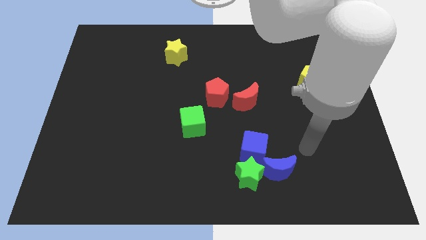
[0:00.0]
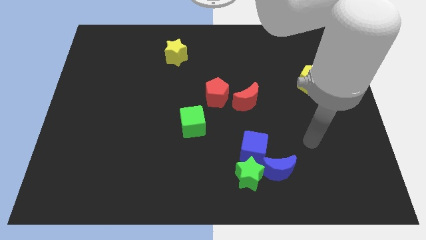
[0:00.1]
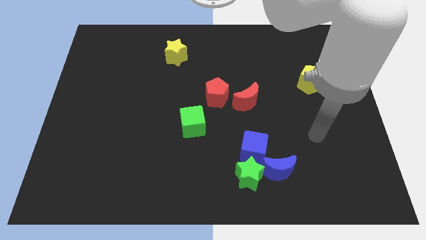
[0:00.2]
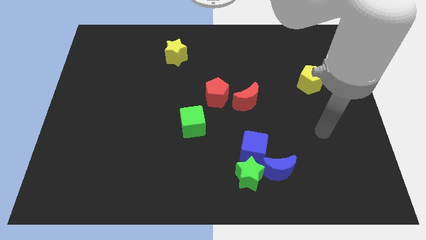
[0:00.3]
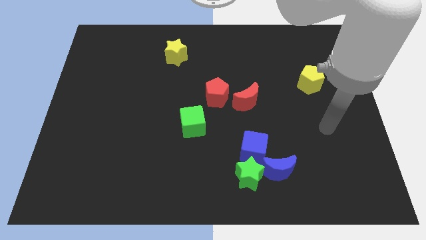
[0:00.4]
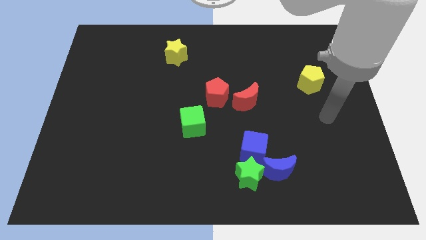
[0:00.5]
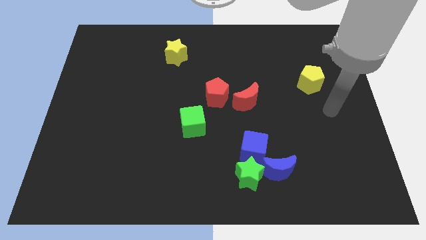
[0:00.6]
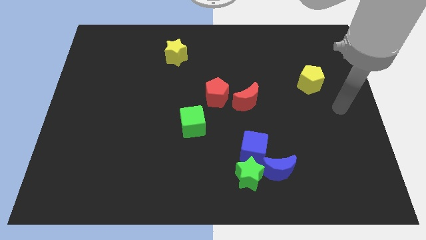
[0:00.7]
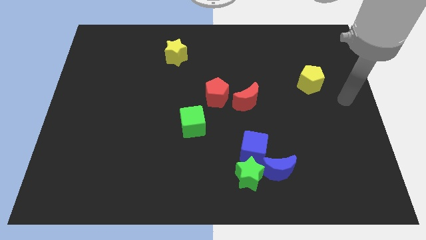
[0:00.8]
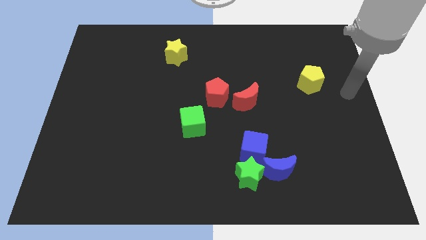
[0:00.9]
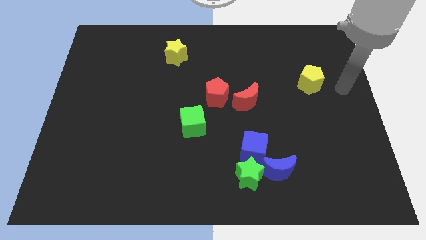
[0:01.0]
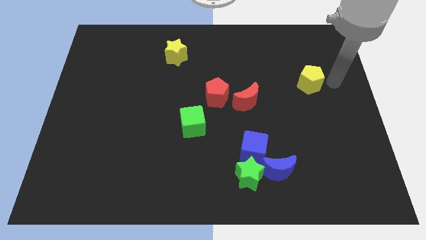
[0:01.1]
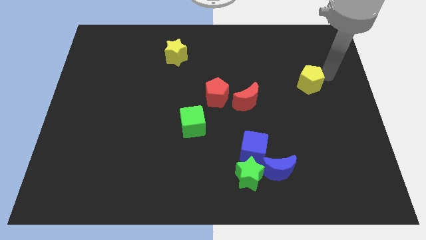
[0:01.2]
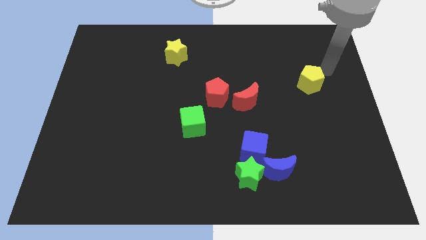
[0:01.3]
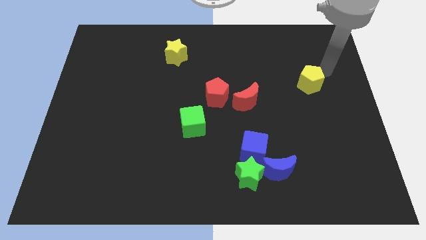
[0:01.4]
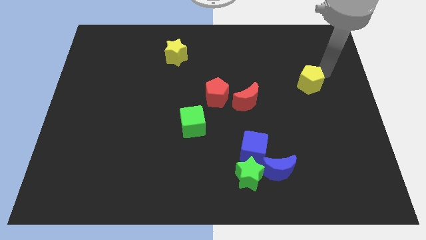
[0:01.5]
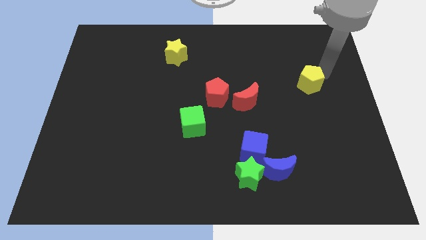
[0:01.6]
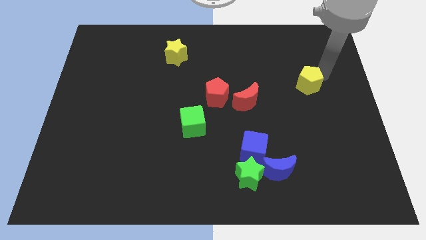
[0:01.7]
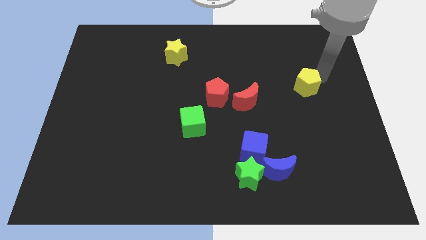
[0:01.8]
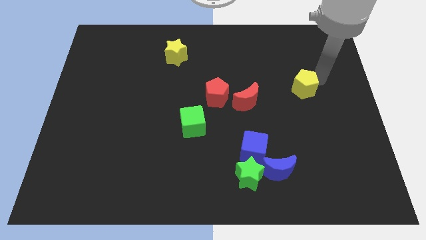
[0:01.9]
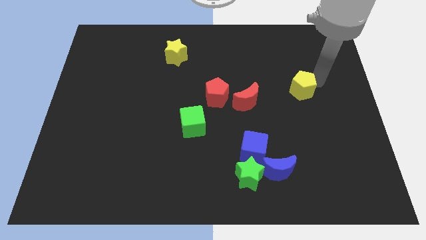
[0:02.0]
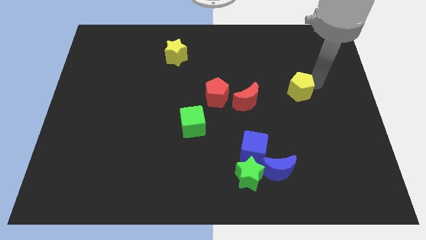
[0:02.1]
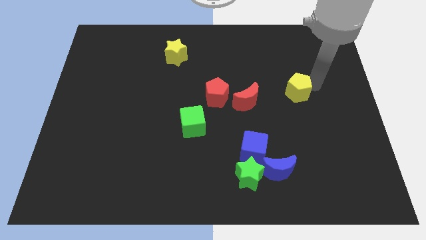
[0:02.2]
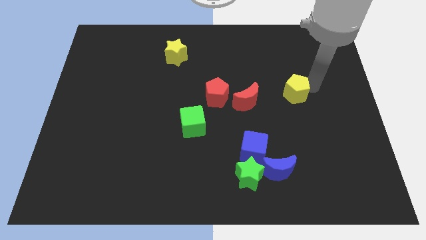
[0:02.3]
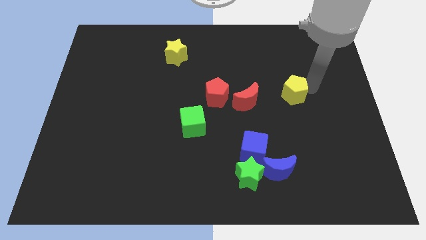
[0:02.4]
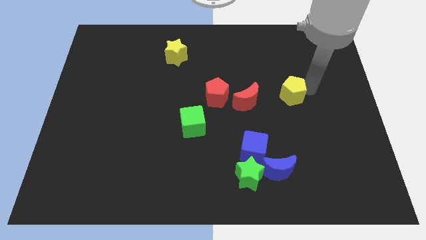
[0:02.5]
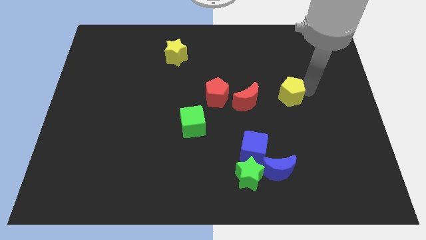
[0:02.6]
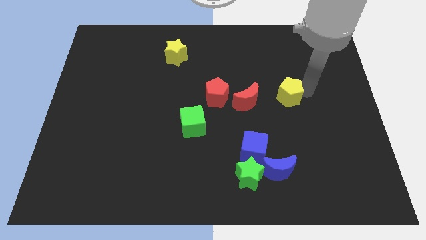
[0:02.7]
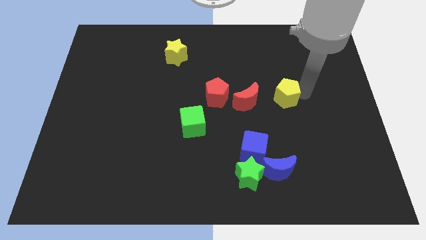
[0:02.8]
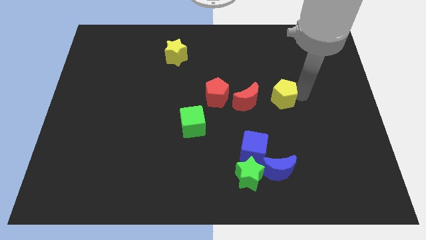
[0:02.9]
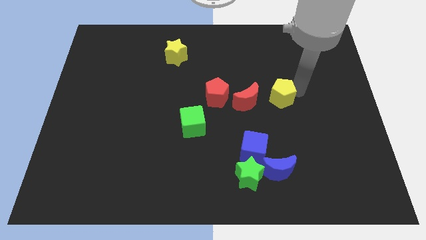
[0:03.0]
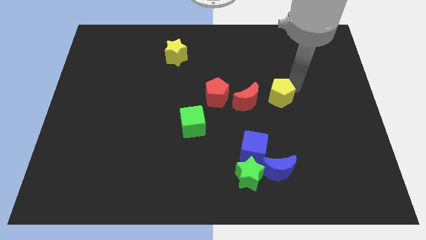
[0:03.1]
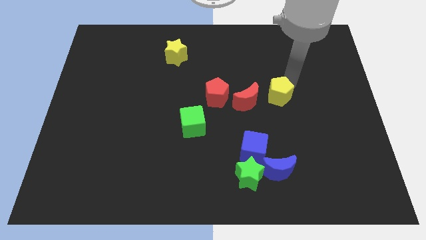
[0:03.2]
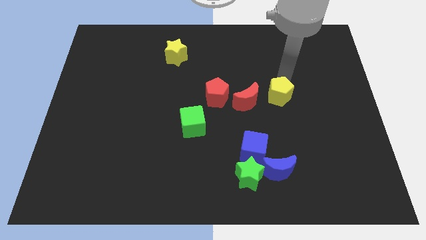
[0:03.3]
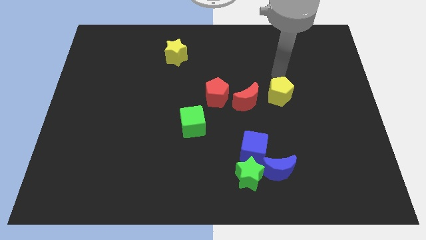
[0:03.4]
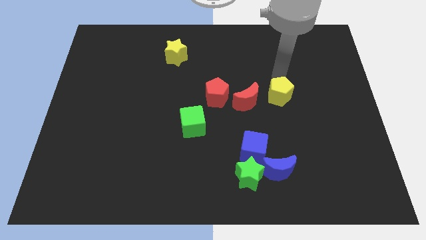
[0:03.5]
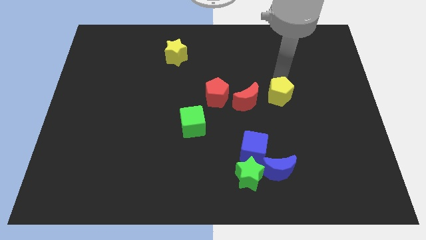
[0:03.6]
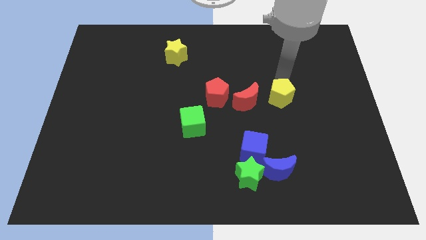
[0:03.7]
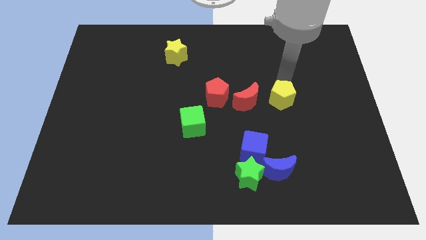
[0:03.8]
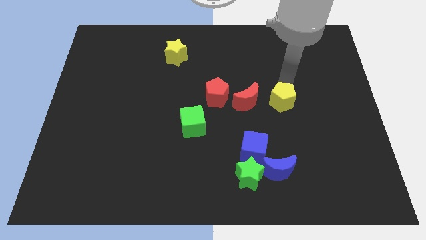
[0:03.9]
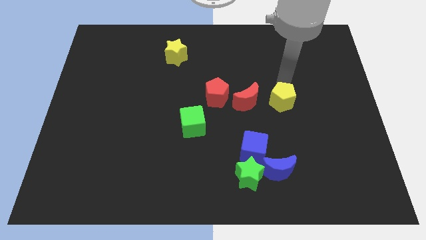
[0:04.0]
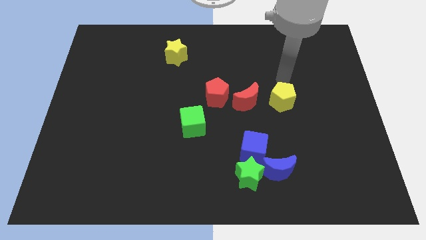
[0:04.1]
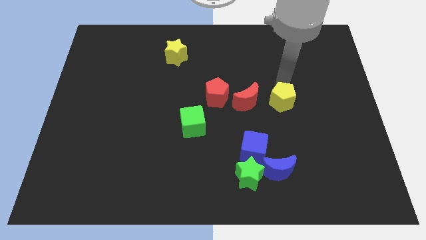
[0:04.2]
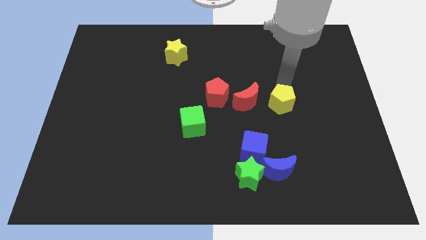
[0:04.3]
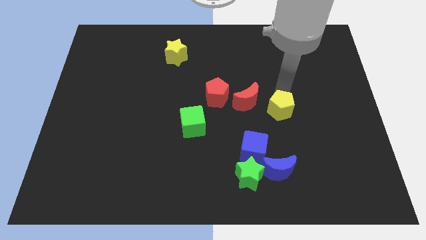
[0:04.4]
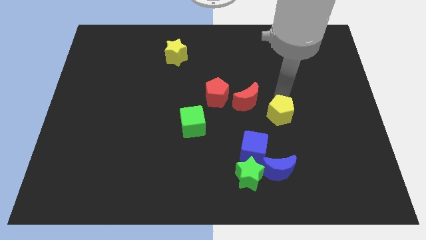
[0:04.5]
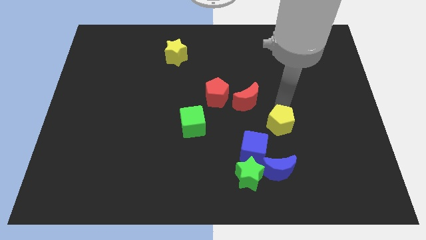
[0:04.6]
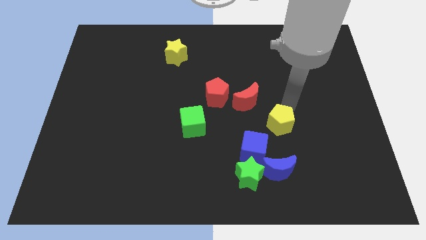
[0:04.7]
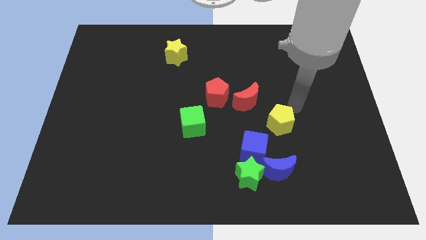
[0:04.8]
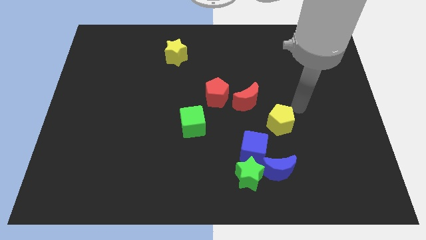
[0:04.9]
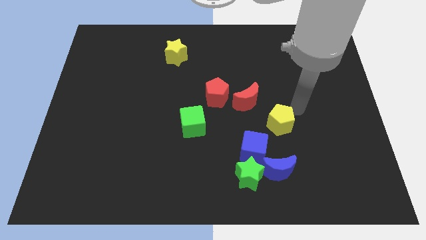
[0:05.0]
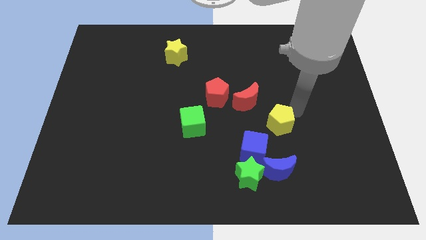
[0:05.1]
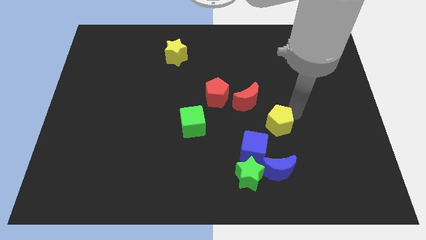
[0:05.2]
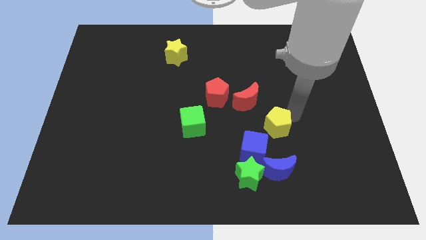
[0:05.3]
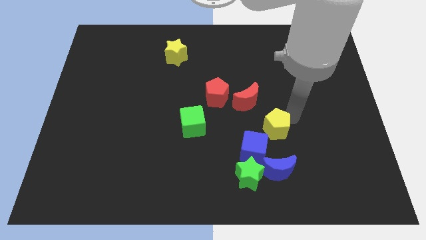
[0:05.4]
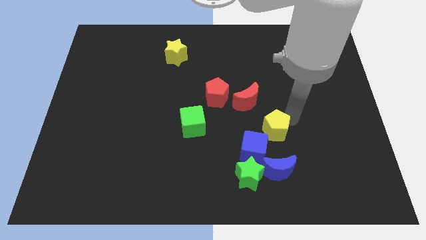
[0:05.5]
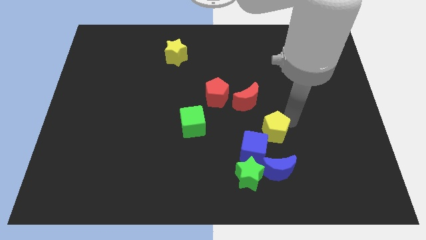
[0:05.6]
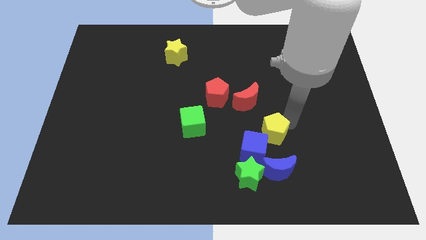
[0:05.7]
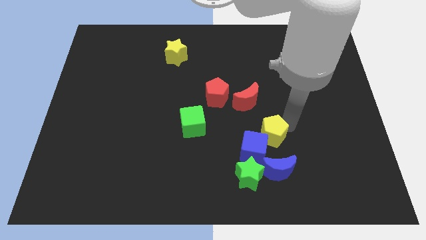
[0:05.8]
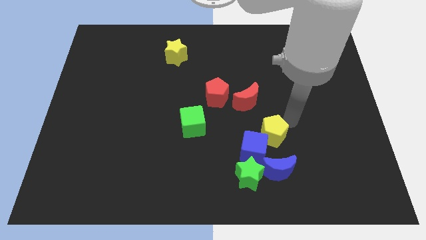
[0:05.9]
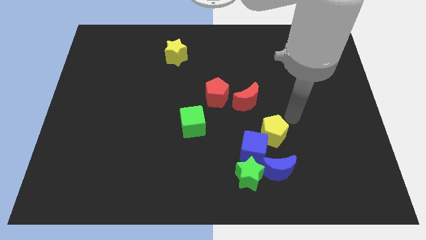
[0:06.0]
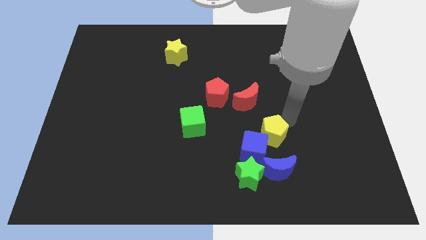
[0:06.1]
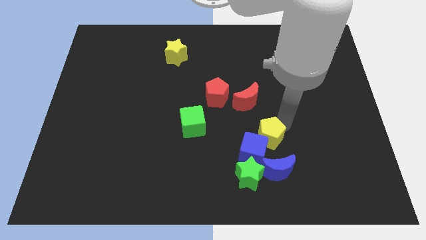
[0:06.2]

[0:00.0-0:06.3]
move the yellow pentagon to the blue cube
